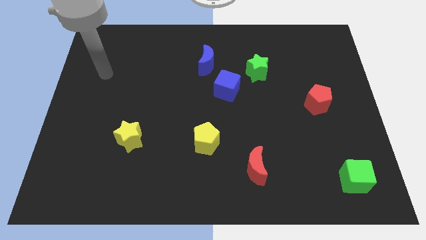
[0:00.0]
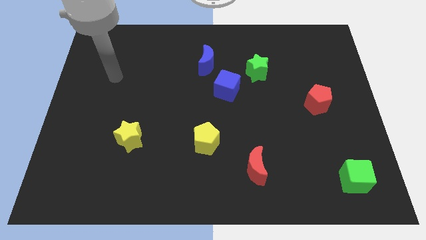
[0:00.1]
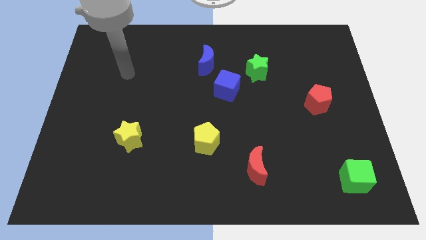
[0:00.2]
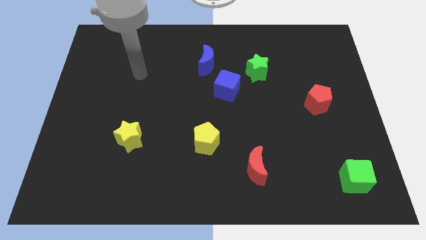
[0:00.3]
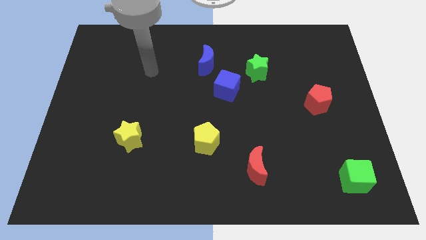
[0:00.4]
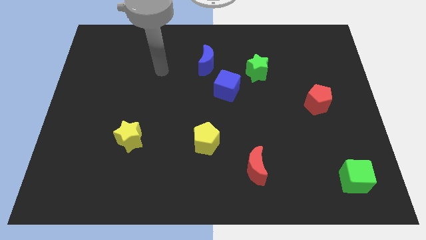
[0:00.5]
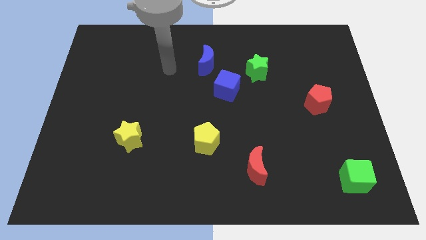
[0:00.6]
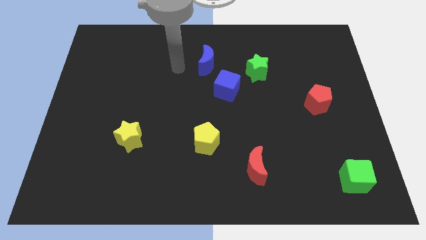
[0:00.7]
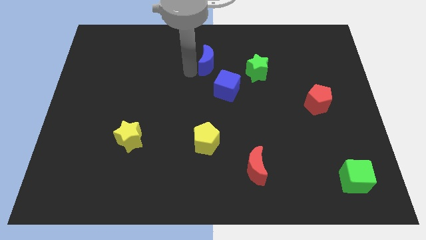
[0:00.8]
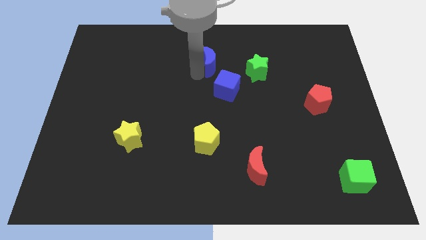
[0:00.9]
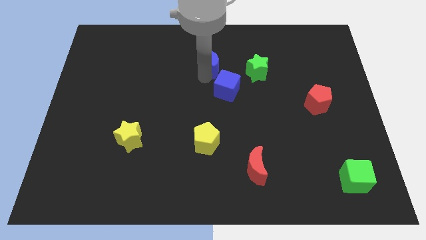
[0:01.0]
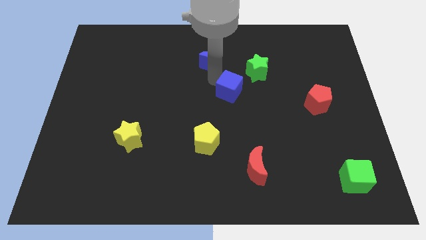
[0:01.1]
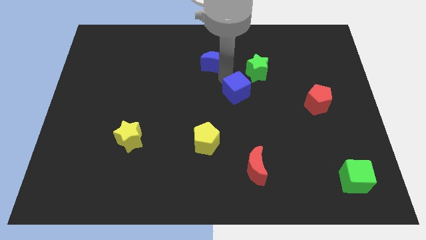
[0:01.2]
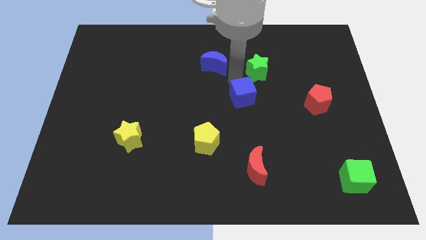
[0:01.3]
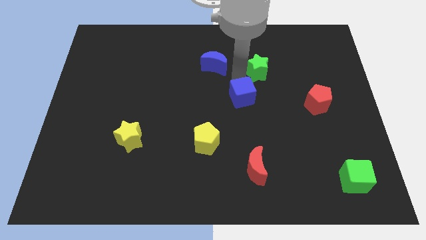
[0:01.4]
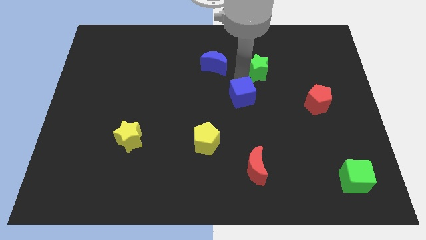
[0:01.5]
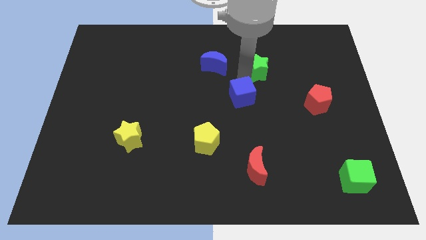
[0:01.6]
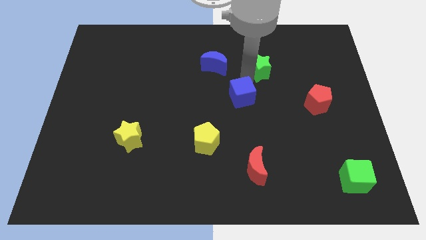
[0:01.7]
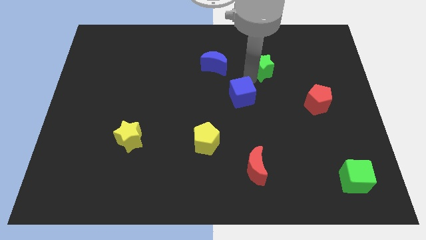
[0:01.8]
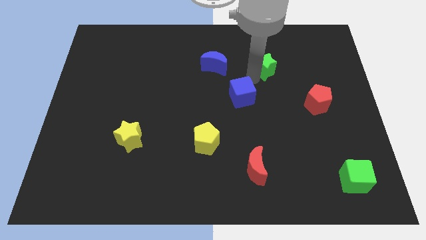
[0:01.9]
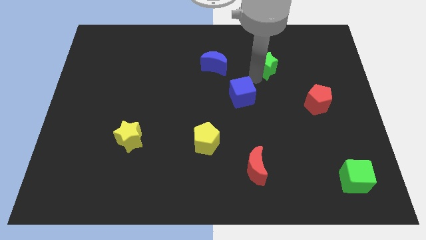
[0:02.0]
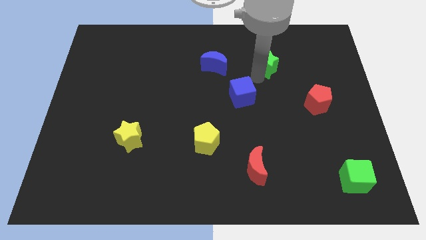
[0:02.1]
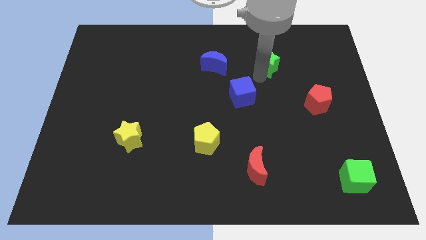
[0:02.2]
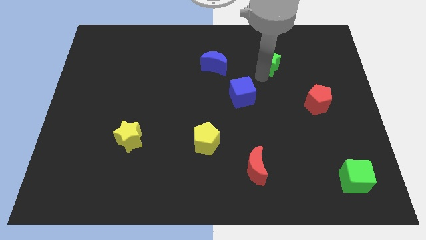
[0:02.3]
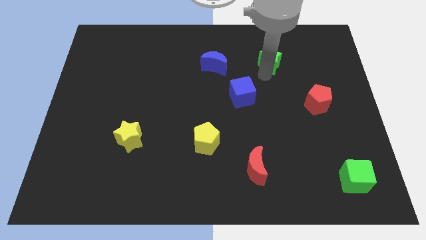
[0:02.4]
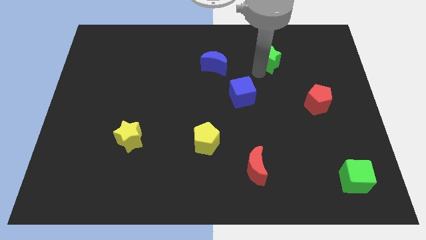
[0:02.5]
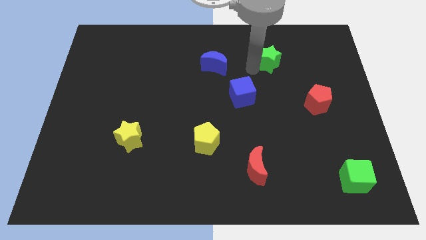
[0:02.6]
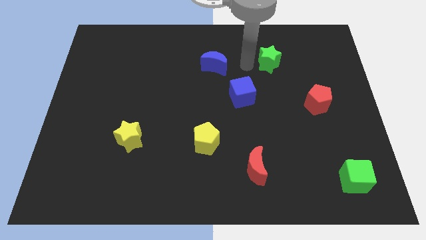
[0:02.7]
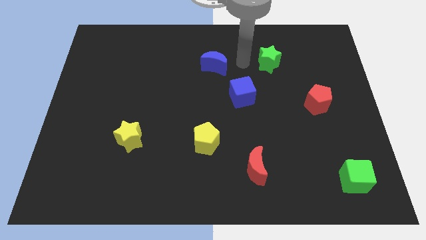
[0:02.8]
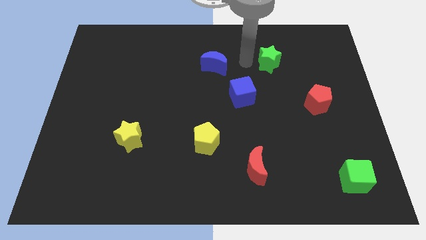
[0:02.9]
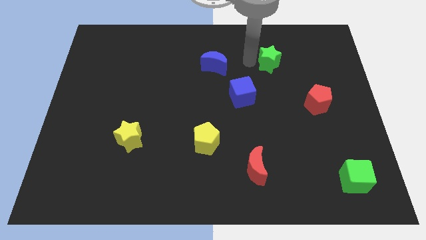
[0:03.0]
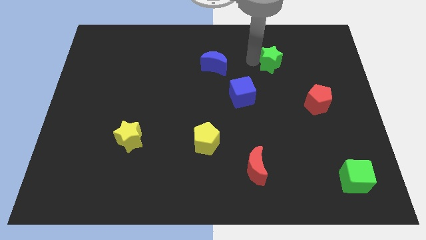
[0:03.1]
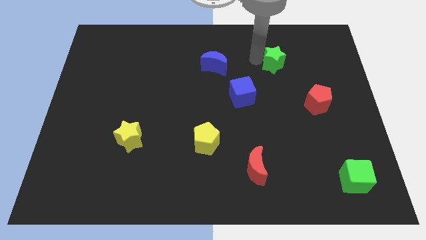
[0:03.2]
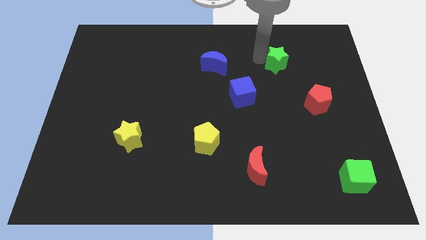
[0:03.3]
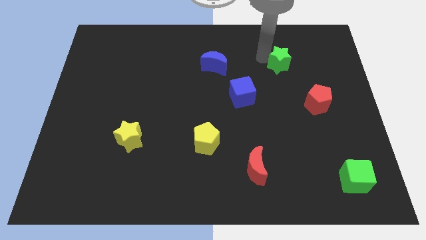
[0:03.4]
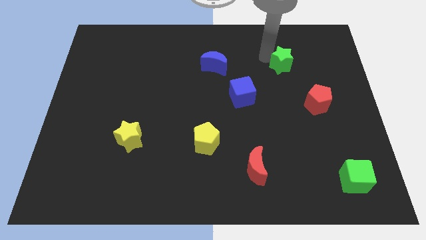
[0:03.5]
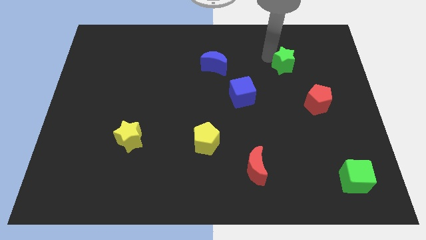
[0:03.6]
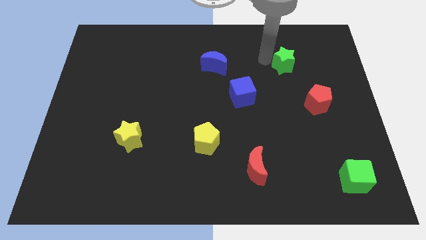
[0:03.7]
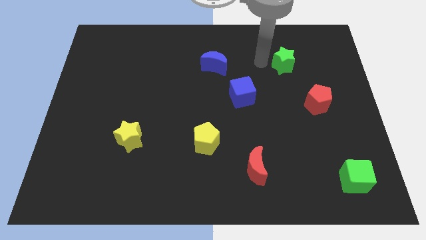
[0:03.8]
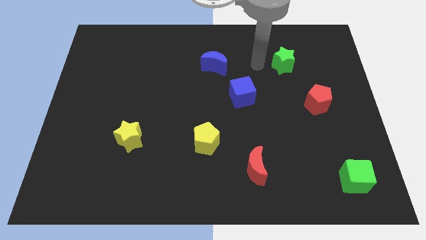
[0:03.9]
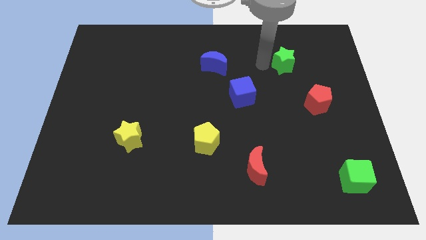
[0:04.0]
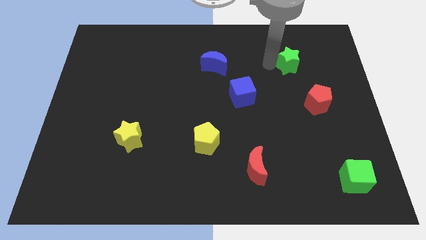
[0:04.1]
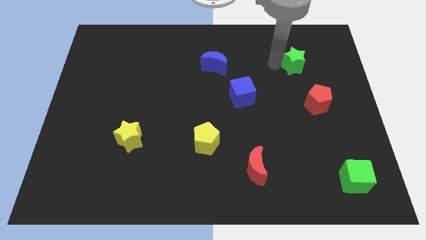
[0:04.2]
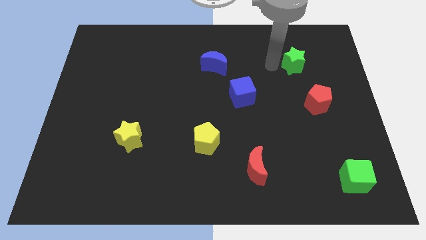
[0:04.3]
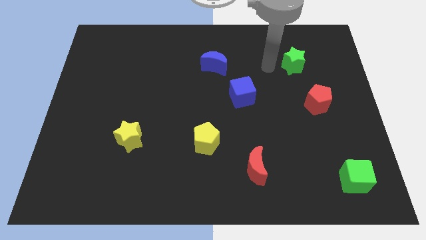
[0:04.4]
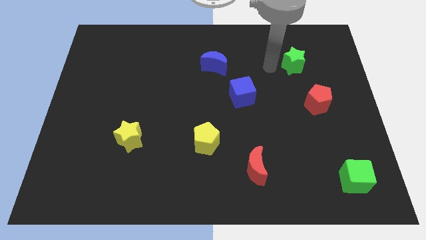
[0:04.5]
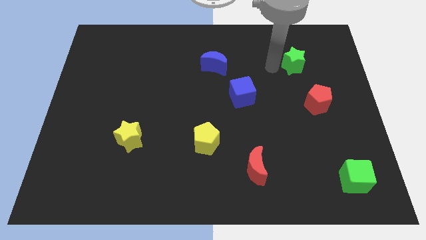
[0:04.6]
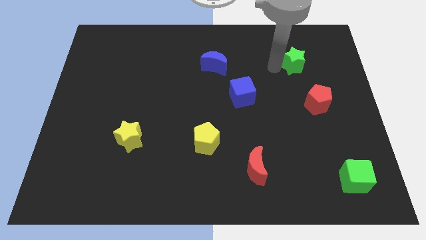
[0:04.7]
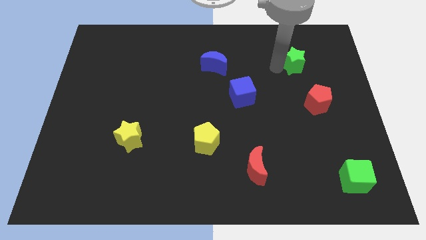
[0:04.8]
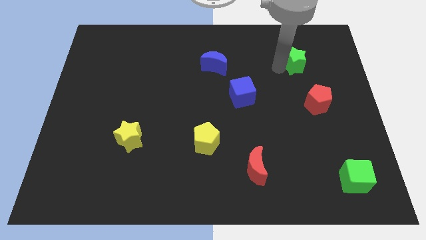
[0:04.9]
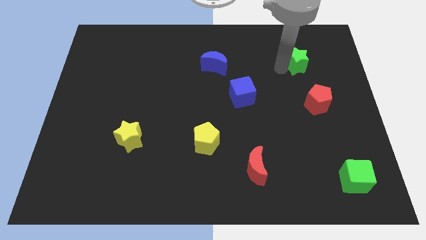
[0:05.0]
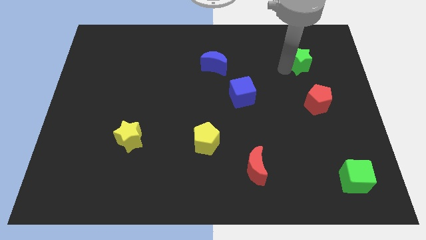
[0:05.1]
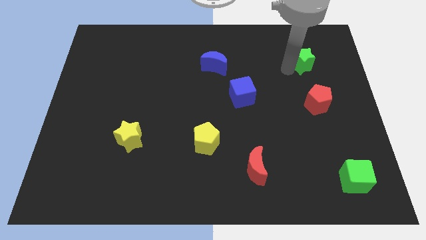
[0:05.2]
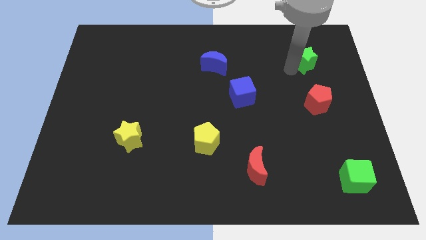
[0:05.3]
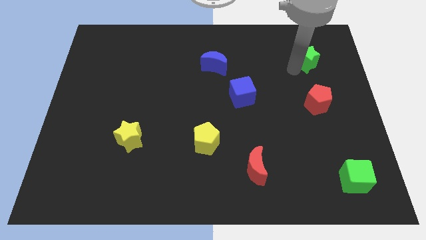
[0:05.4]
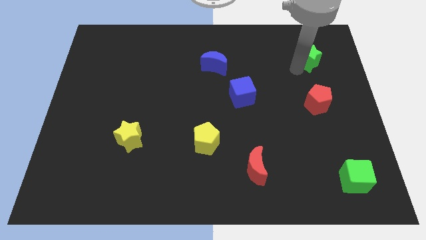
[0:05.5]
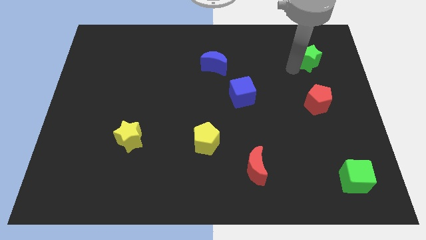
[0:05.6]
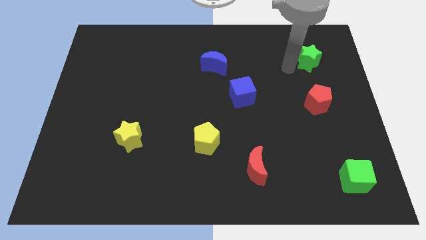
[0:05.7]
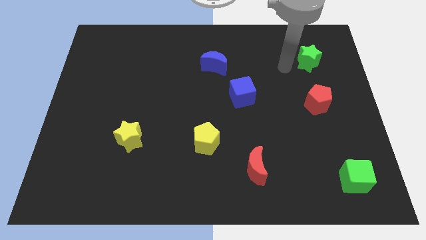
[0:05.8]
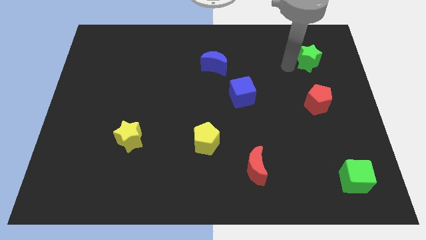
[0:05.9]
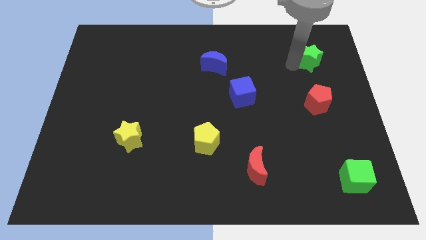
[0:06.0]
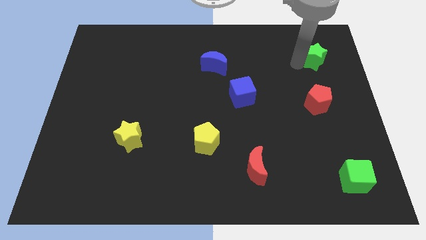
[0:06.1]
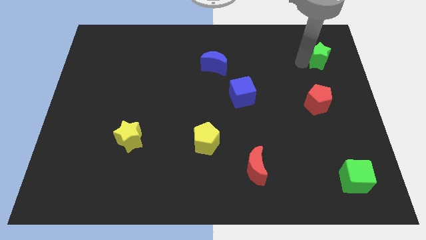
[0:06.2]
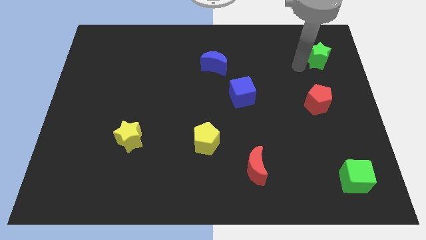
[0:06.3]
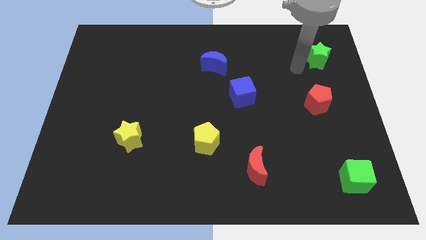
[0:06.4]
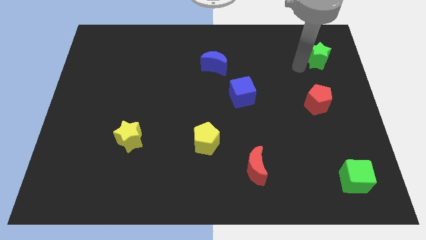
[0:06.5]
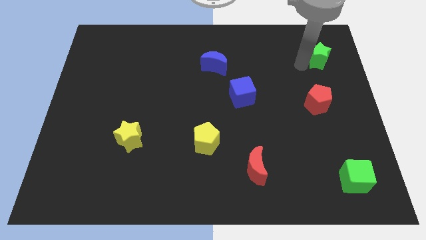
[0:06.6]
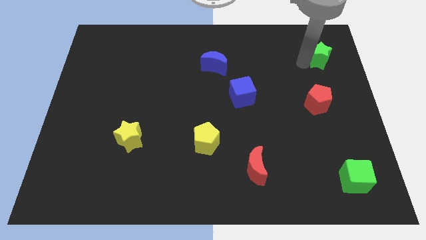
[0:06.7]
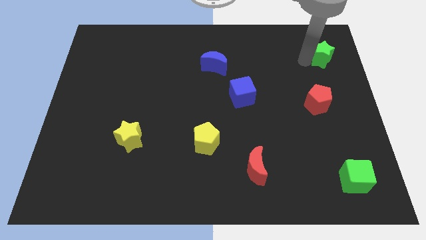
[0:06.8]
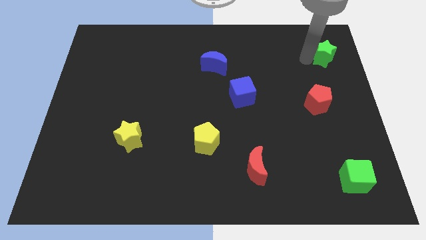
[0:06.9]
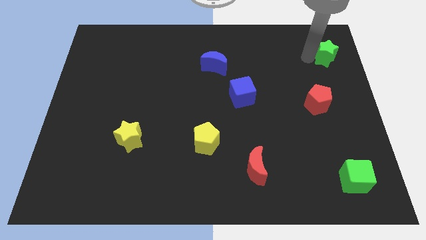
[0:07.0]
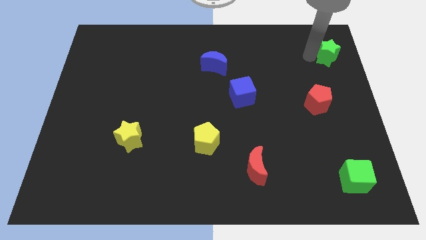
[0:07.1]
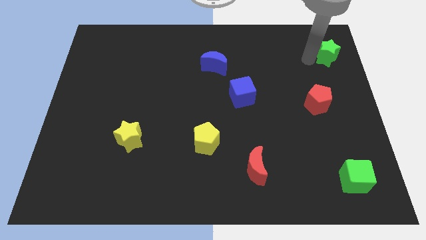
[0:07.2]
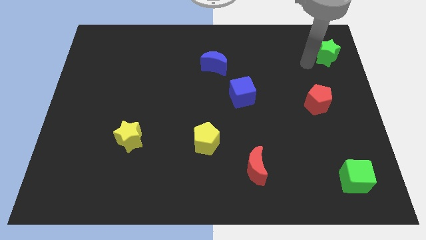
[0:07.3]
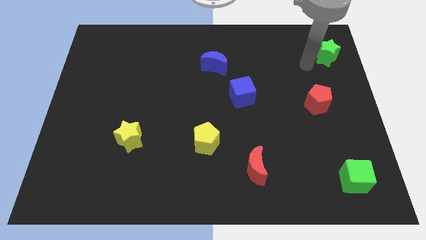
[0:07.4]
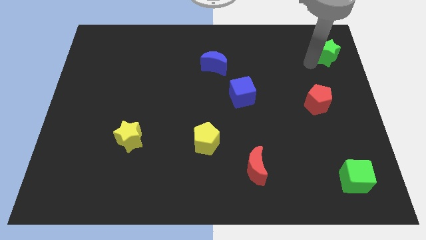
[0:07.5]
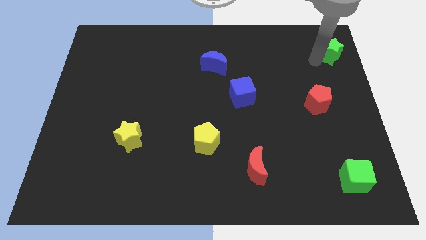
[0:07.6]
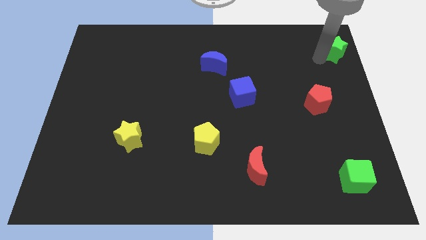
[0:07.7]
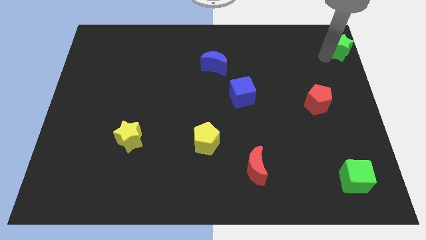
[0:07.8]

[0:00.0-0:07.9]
move the green star to the top right
